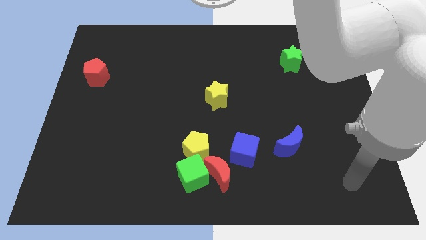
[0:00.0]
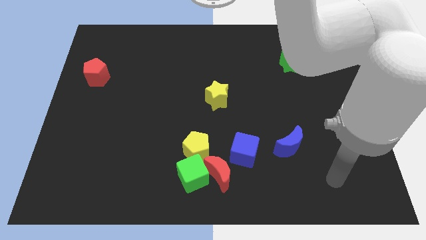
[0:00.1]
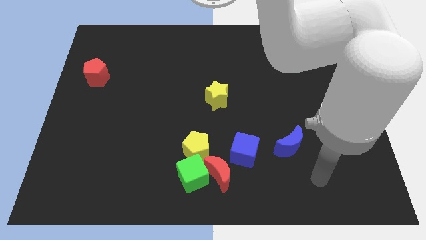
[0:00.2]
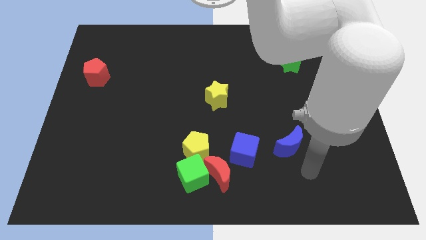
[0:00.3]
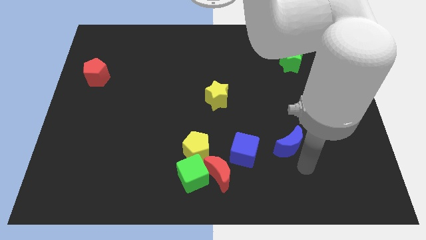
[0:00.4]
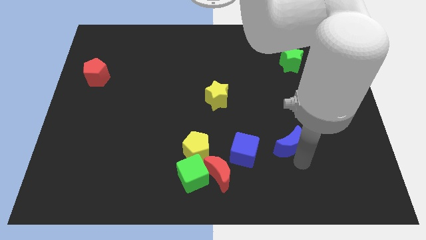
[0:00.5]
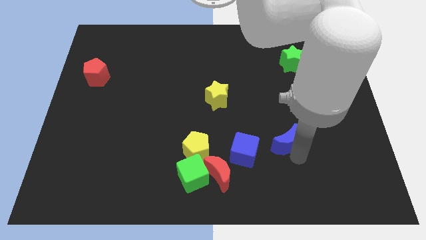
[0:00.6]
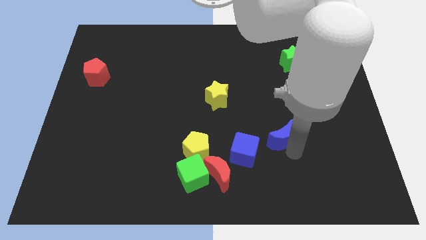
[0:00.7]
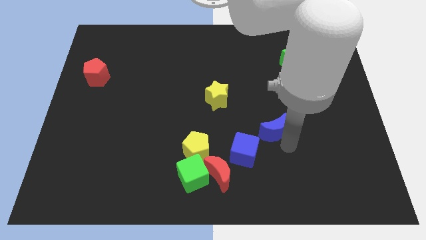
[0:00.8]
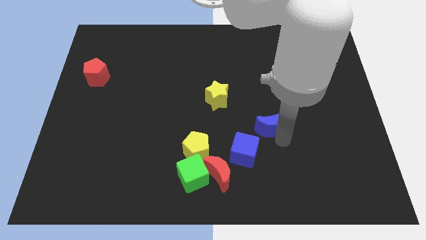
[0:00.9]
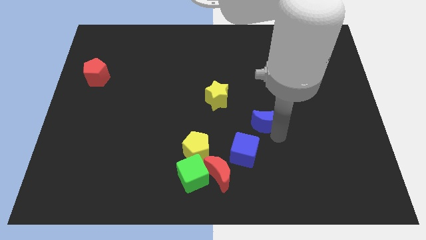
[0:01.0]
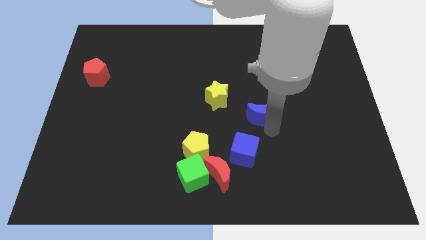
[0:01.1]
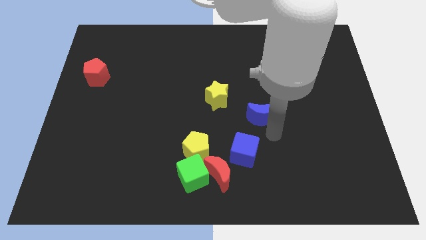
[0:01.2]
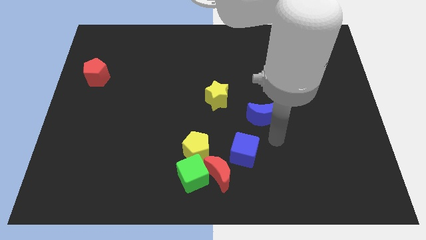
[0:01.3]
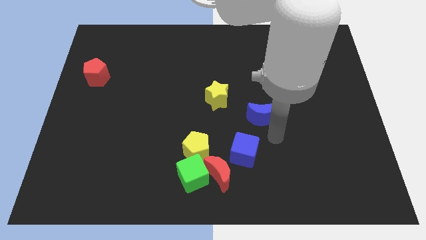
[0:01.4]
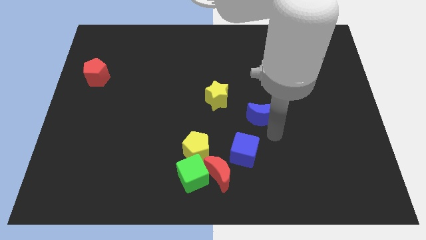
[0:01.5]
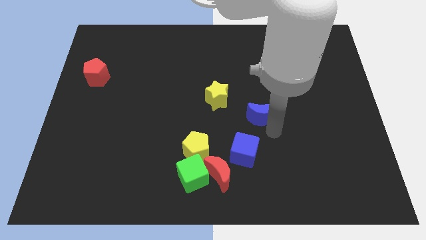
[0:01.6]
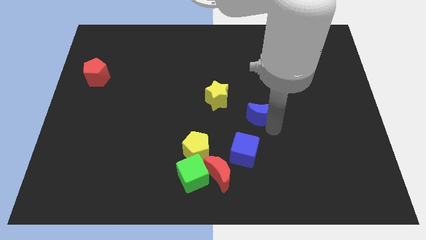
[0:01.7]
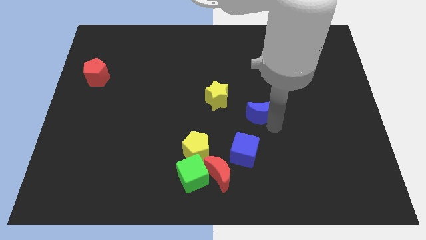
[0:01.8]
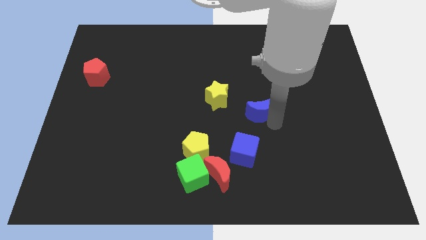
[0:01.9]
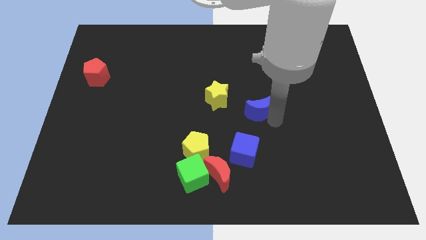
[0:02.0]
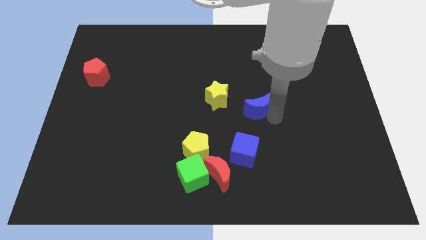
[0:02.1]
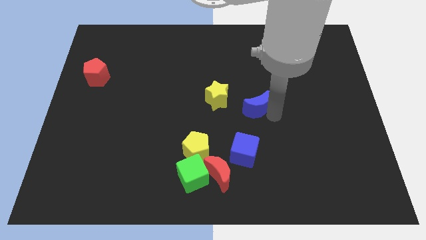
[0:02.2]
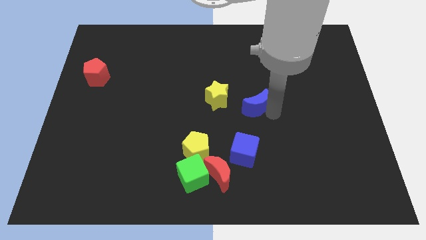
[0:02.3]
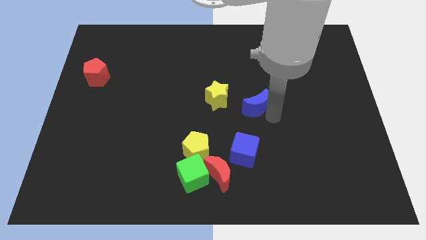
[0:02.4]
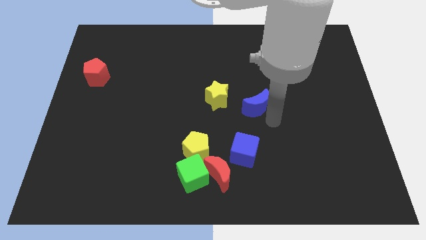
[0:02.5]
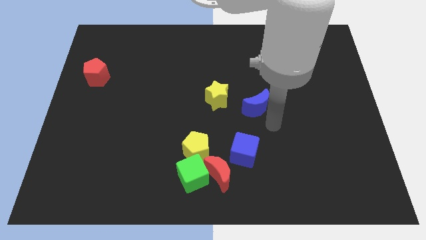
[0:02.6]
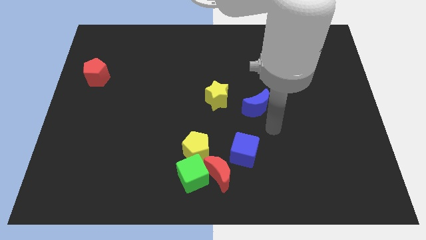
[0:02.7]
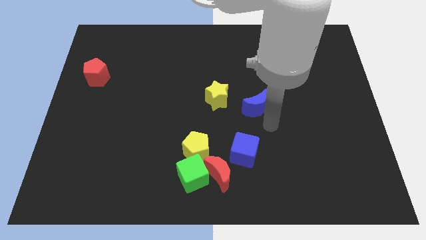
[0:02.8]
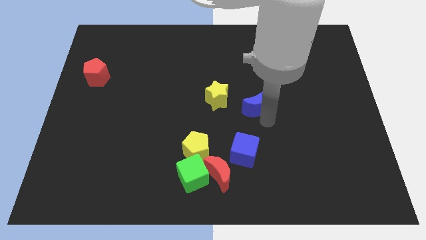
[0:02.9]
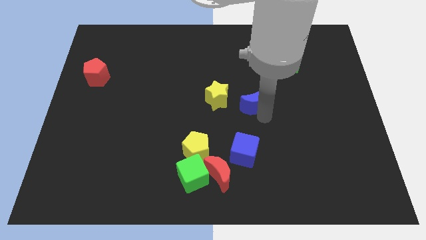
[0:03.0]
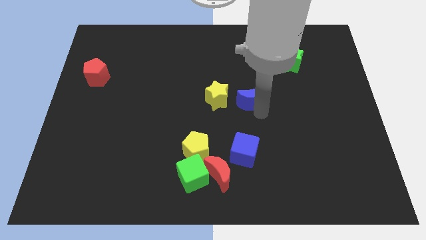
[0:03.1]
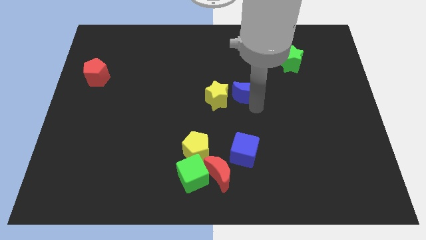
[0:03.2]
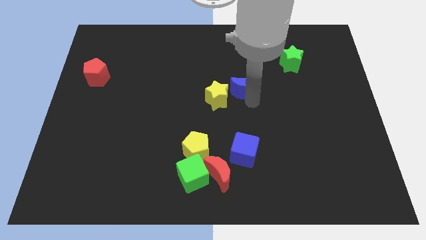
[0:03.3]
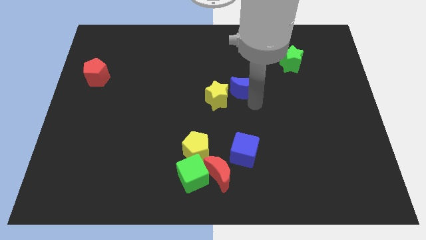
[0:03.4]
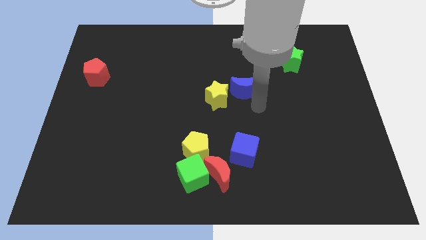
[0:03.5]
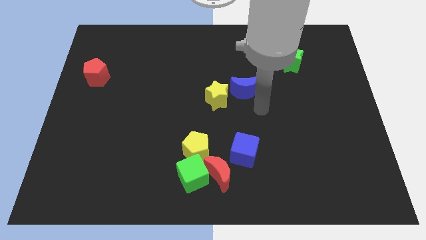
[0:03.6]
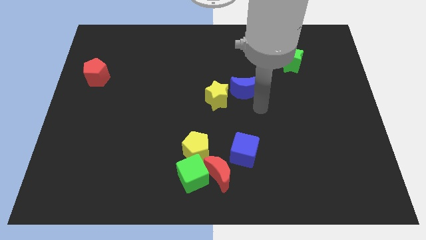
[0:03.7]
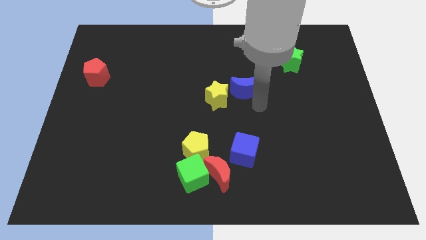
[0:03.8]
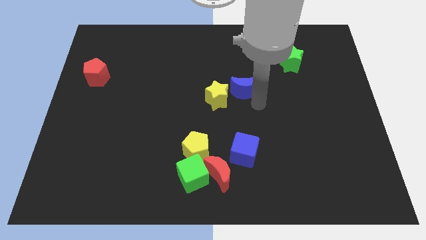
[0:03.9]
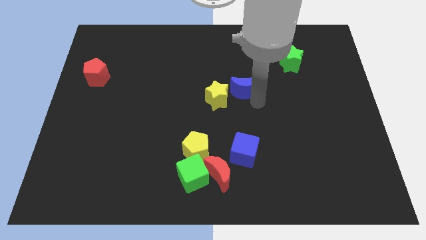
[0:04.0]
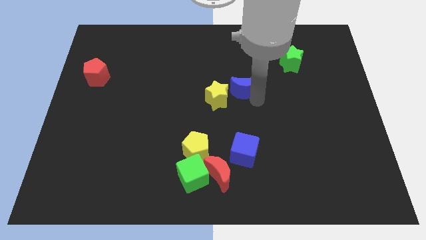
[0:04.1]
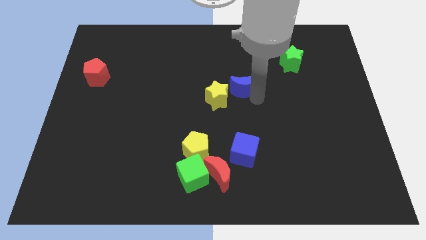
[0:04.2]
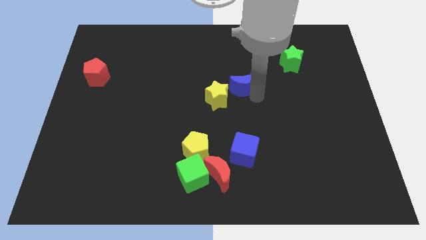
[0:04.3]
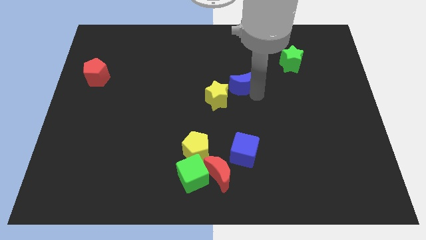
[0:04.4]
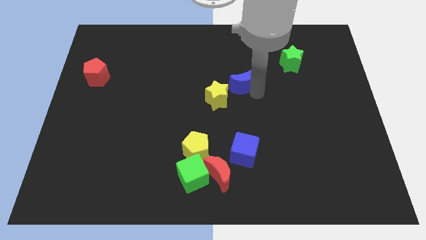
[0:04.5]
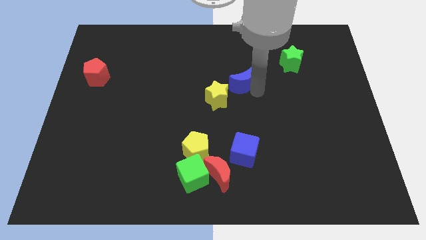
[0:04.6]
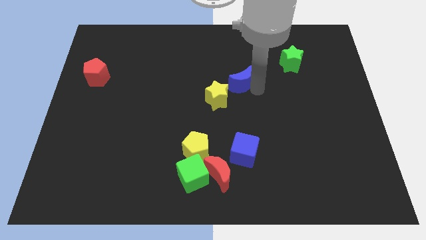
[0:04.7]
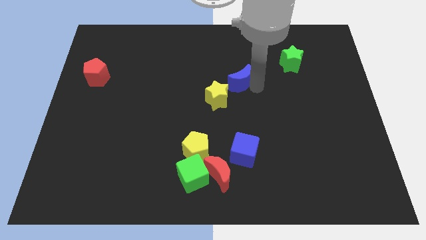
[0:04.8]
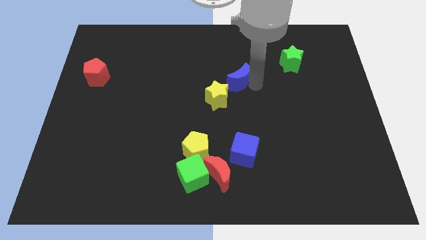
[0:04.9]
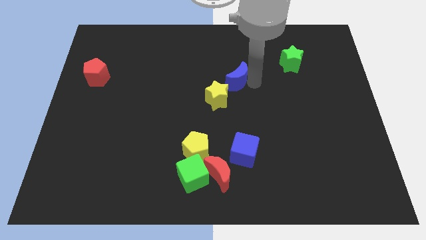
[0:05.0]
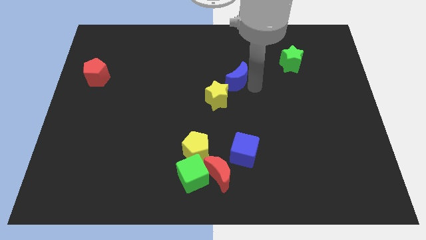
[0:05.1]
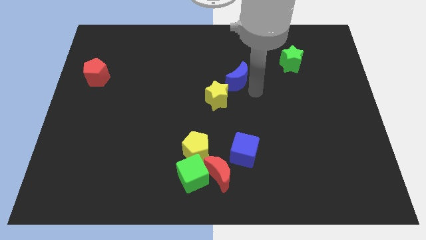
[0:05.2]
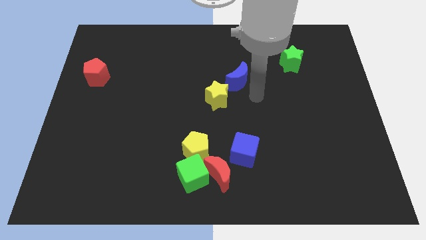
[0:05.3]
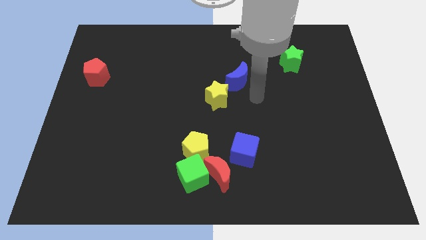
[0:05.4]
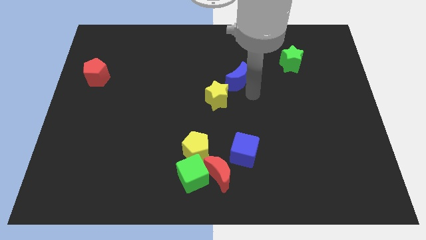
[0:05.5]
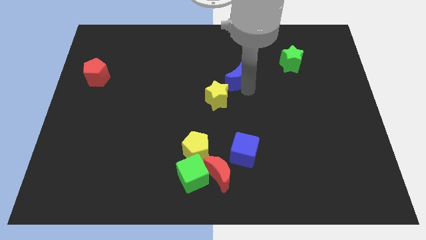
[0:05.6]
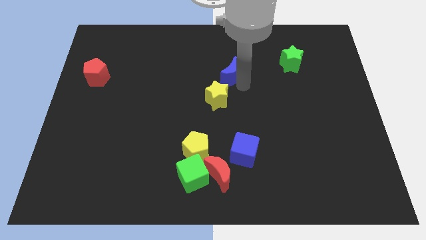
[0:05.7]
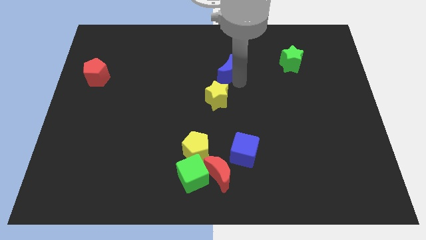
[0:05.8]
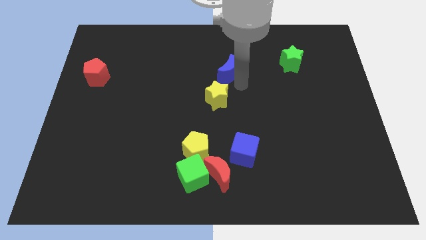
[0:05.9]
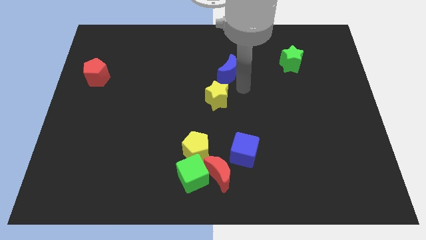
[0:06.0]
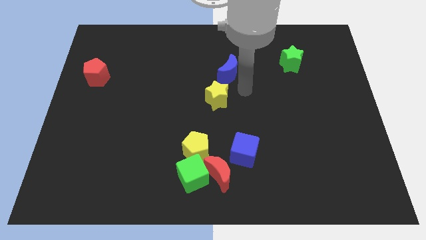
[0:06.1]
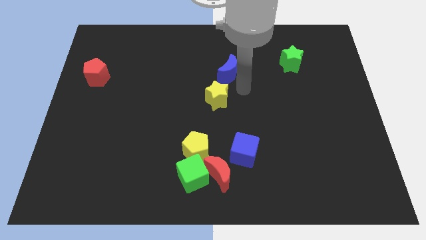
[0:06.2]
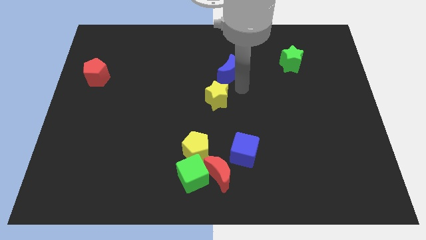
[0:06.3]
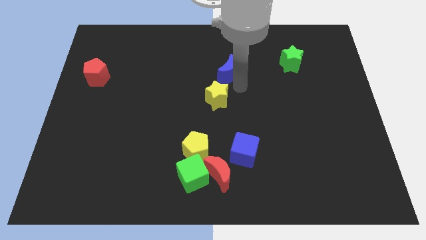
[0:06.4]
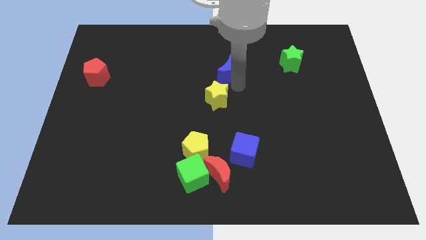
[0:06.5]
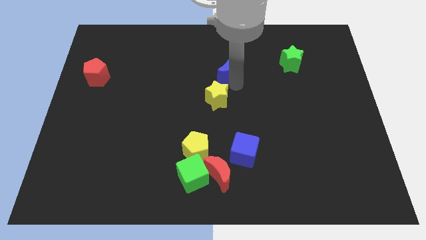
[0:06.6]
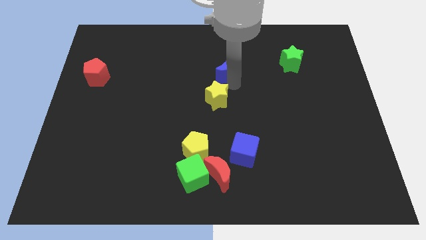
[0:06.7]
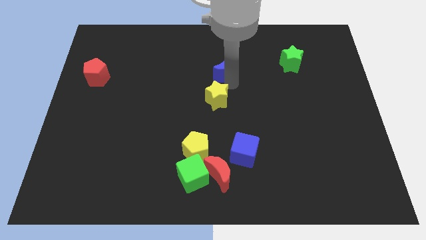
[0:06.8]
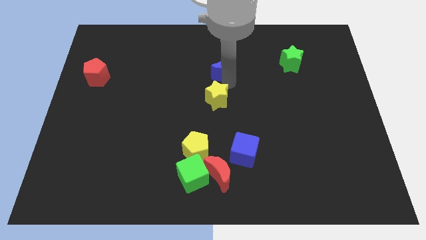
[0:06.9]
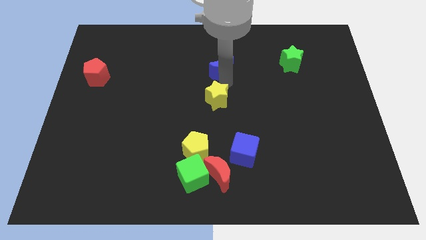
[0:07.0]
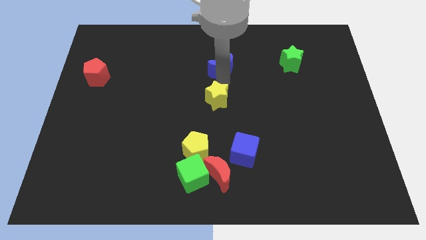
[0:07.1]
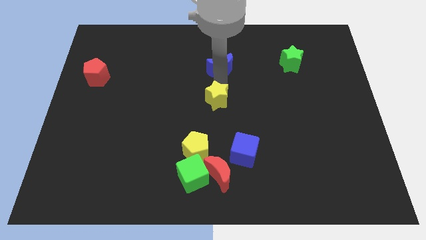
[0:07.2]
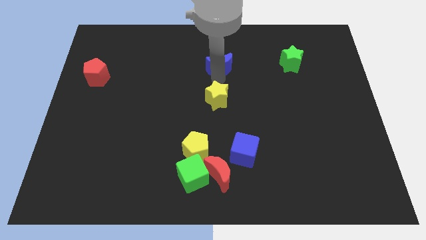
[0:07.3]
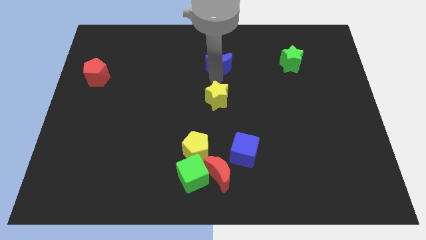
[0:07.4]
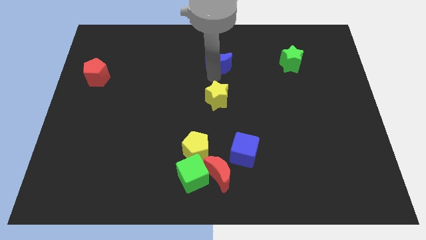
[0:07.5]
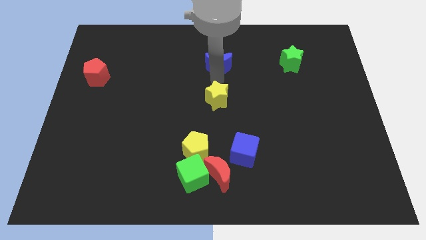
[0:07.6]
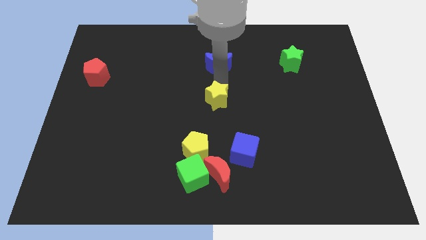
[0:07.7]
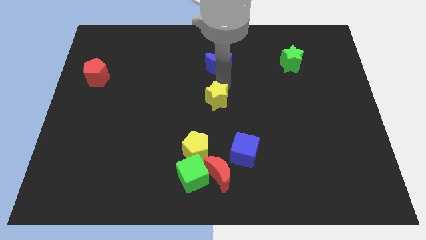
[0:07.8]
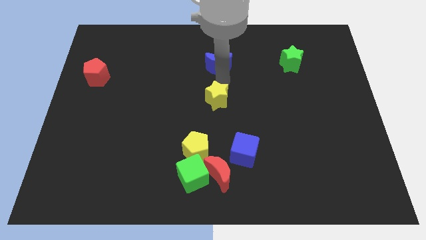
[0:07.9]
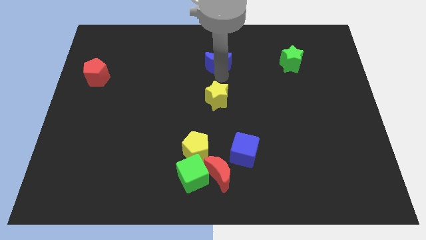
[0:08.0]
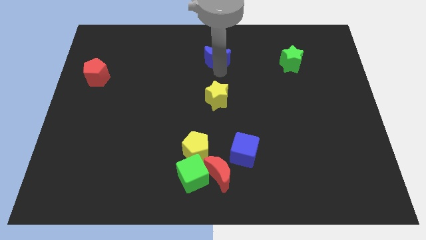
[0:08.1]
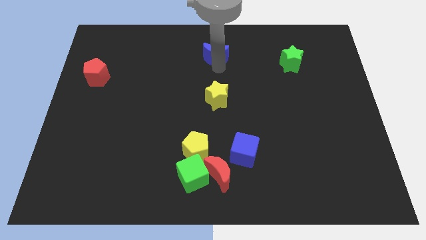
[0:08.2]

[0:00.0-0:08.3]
push the blue moon to the top
